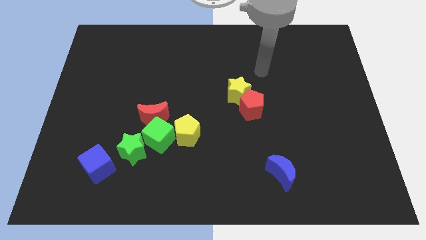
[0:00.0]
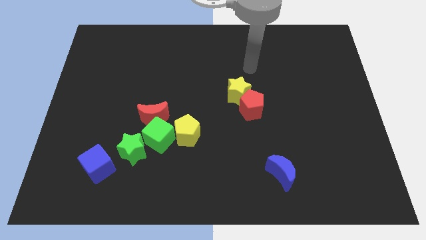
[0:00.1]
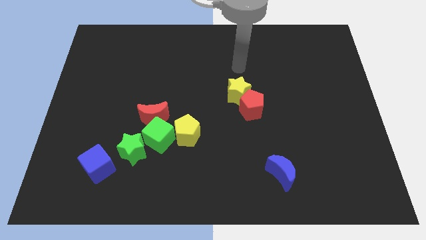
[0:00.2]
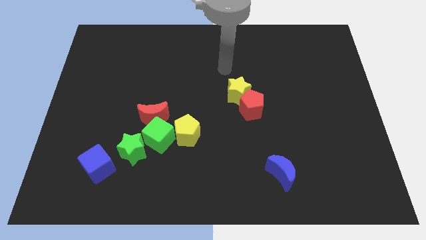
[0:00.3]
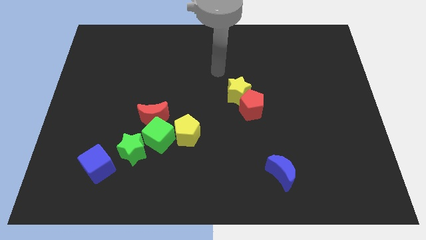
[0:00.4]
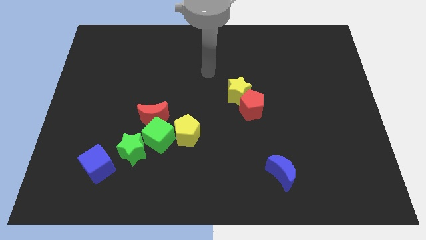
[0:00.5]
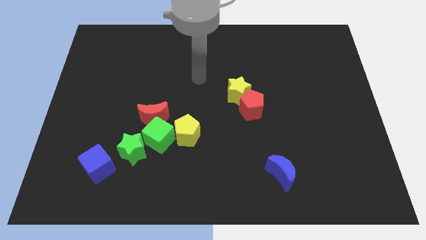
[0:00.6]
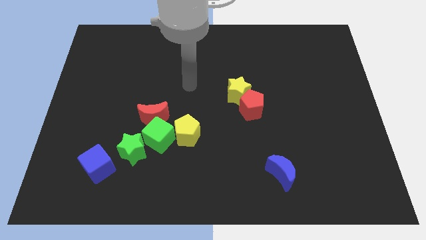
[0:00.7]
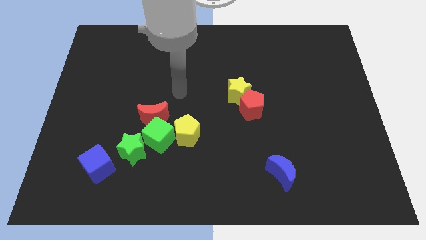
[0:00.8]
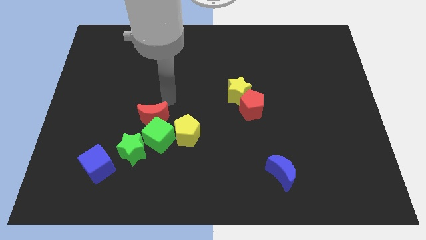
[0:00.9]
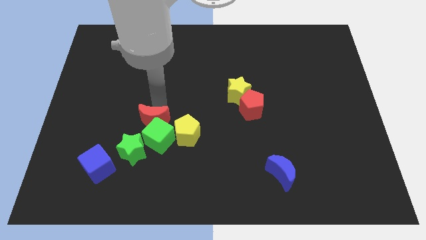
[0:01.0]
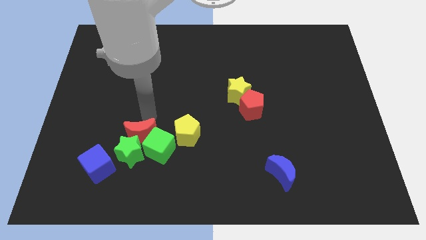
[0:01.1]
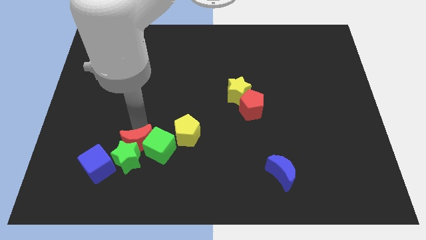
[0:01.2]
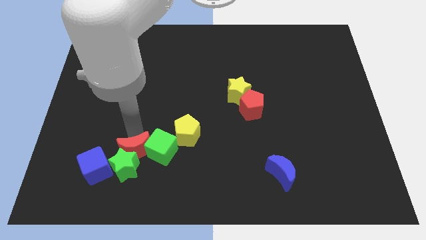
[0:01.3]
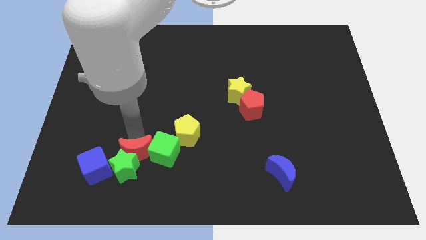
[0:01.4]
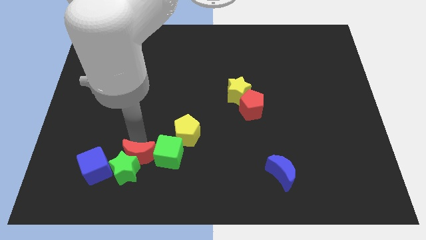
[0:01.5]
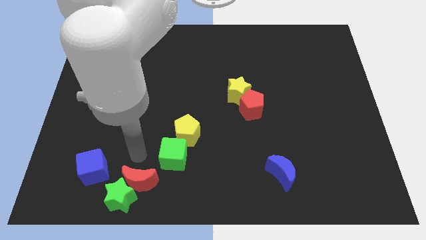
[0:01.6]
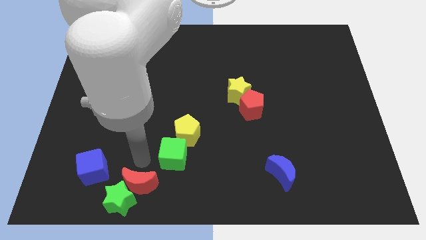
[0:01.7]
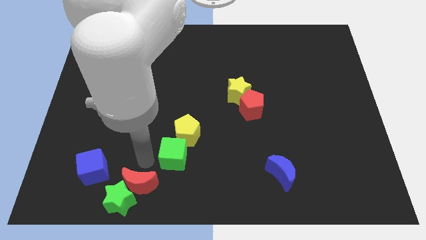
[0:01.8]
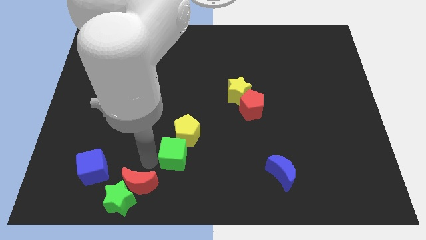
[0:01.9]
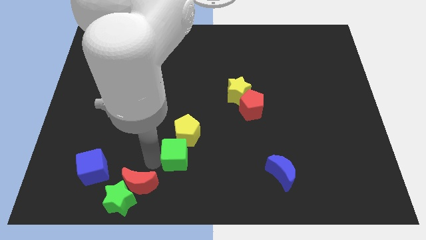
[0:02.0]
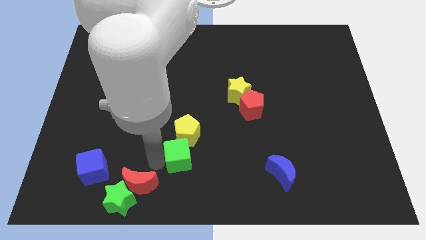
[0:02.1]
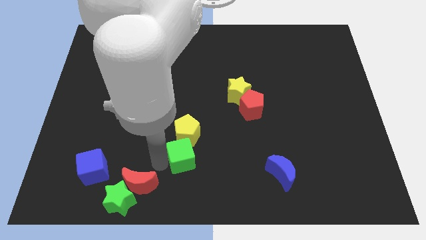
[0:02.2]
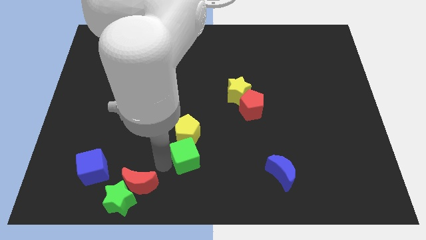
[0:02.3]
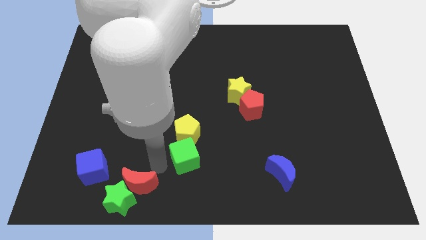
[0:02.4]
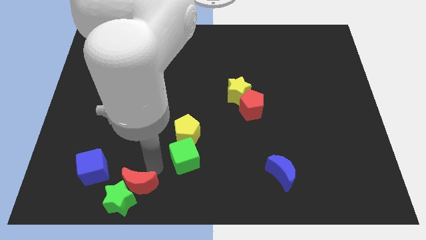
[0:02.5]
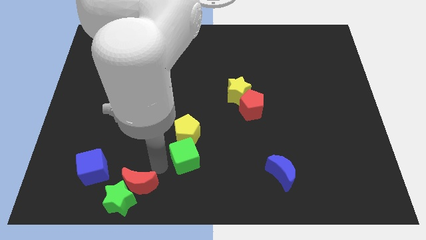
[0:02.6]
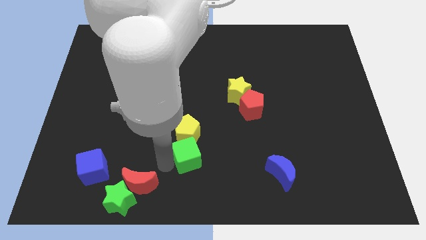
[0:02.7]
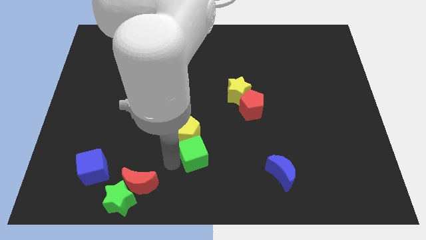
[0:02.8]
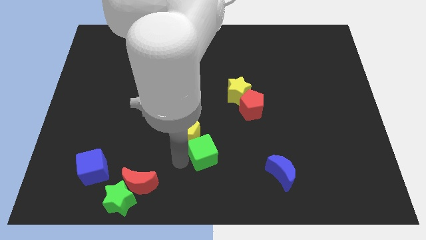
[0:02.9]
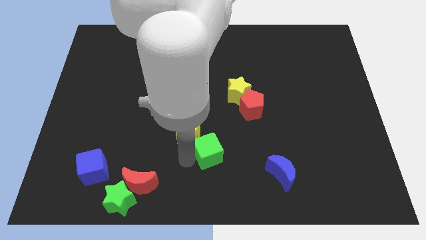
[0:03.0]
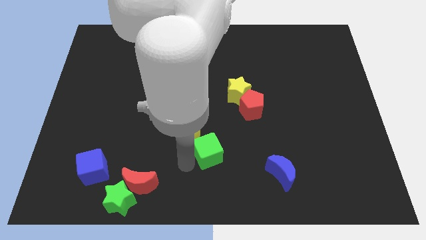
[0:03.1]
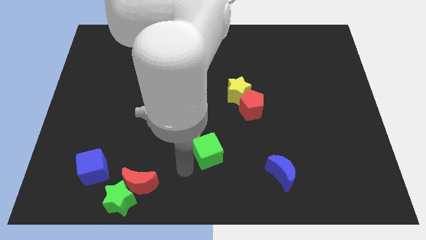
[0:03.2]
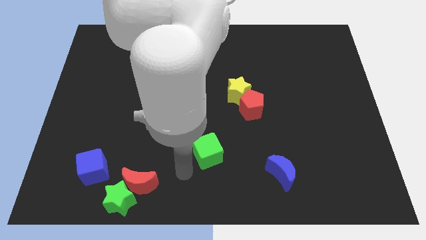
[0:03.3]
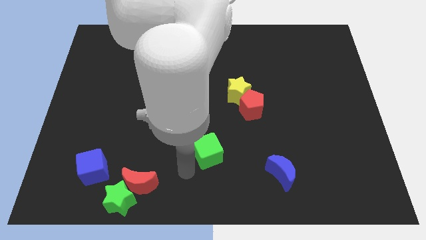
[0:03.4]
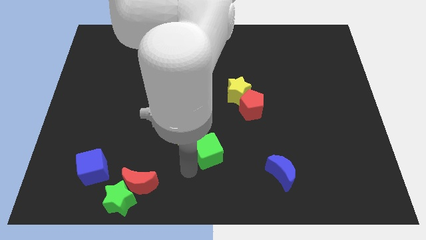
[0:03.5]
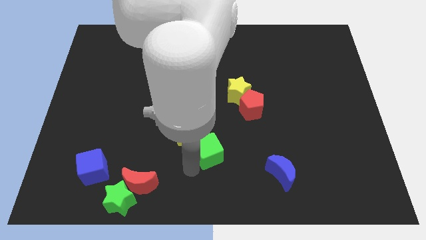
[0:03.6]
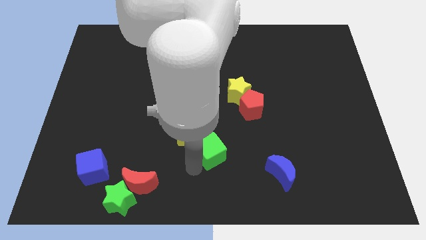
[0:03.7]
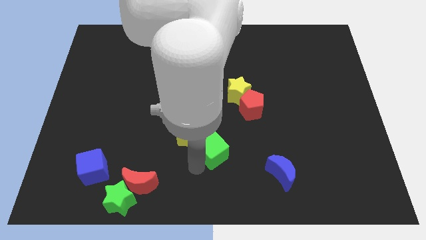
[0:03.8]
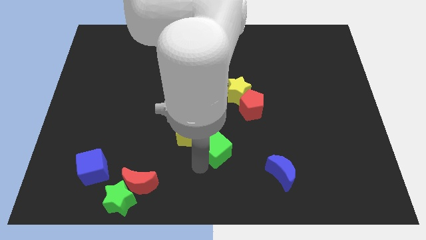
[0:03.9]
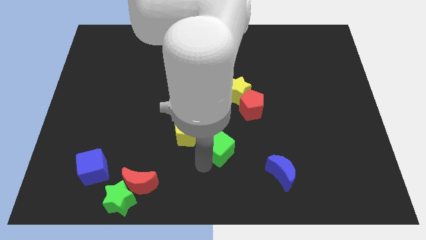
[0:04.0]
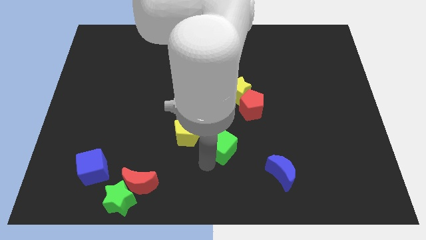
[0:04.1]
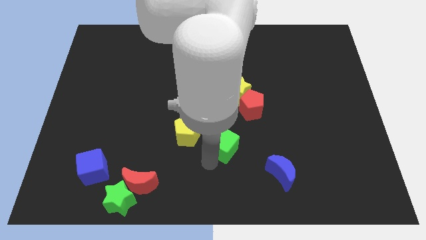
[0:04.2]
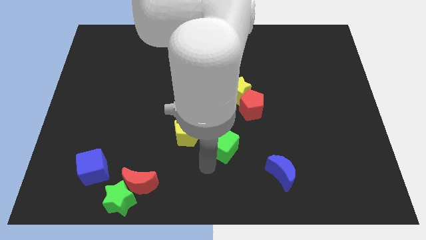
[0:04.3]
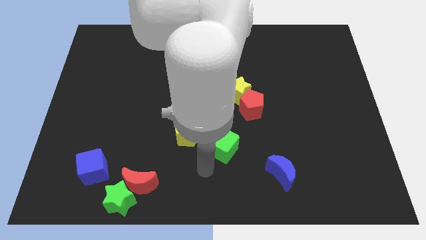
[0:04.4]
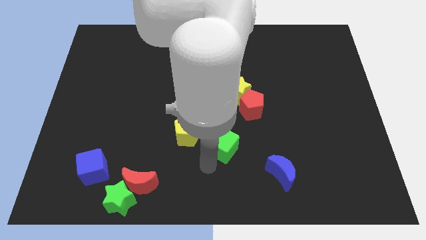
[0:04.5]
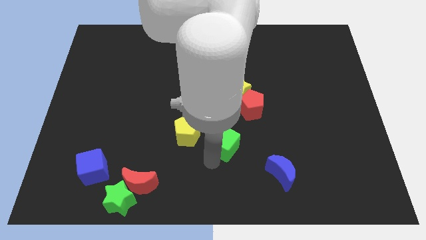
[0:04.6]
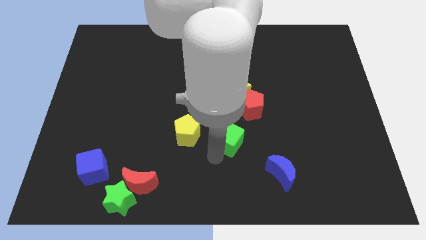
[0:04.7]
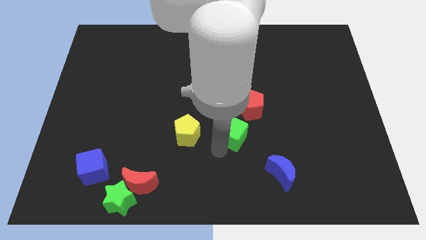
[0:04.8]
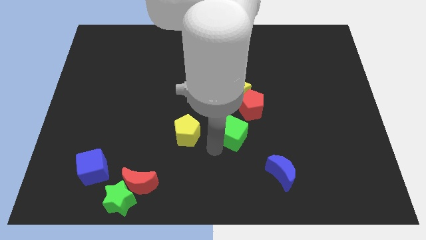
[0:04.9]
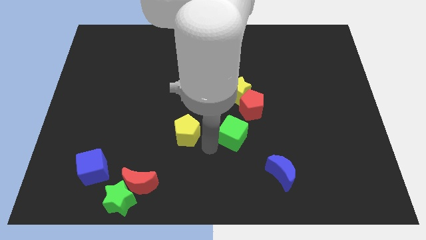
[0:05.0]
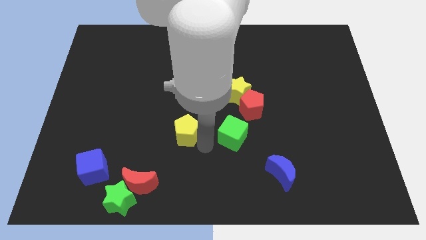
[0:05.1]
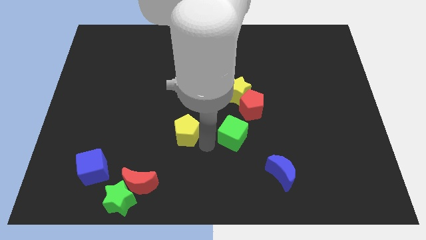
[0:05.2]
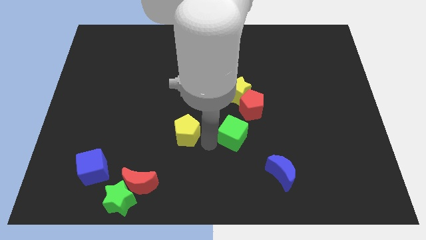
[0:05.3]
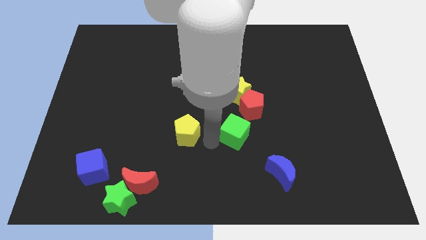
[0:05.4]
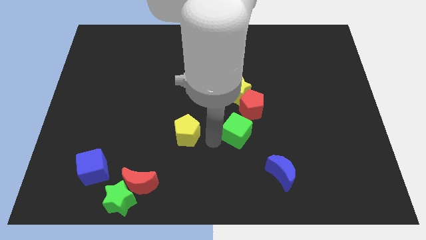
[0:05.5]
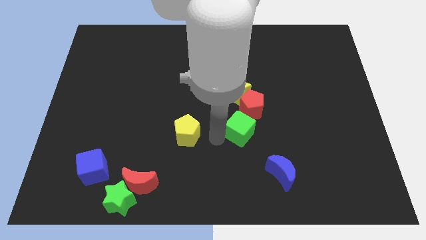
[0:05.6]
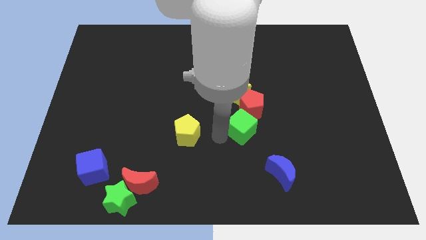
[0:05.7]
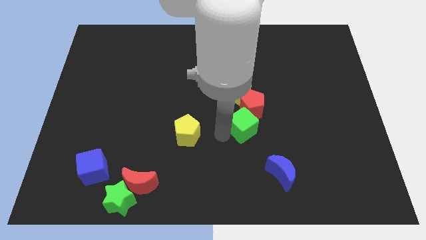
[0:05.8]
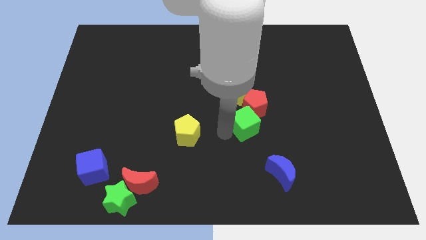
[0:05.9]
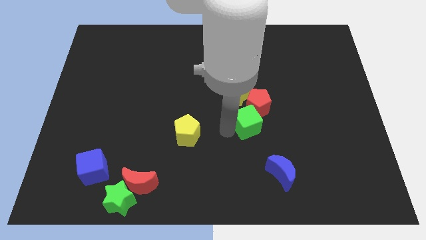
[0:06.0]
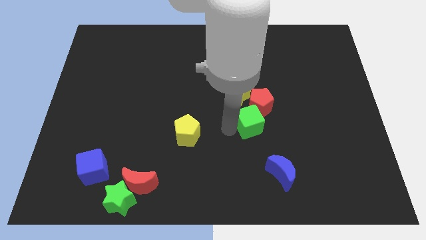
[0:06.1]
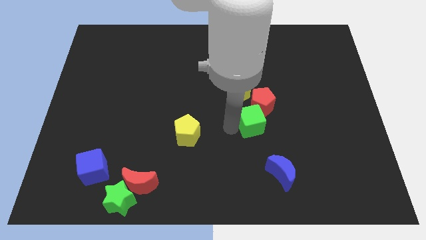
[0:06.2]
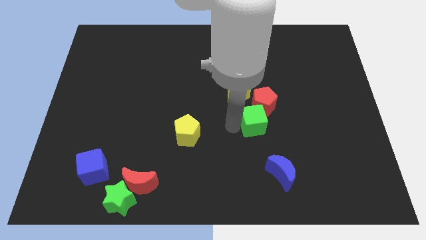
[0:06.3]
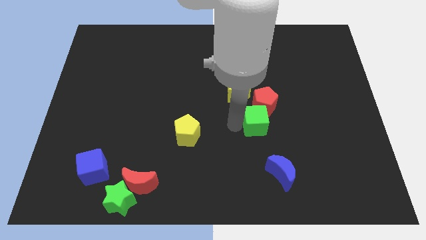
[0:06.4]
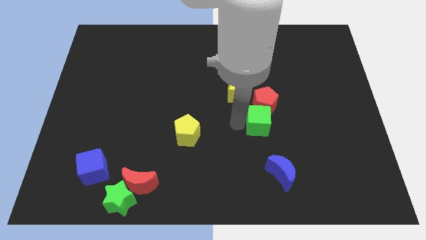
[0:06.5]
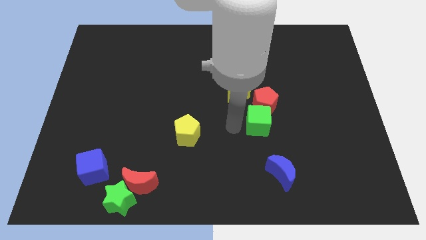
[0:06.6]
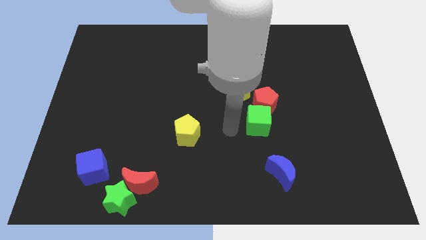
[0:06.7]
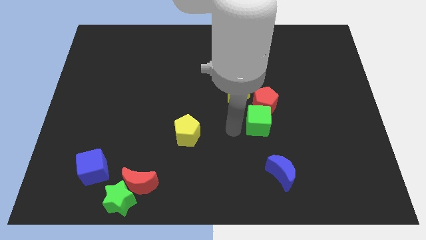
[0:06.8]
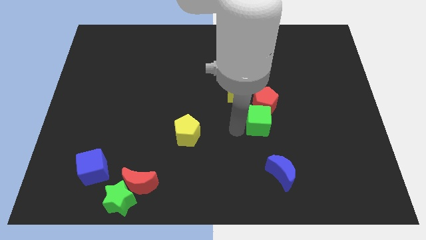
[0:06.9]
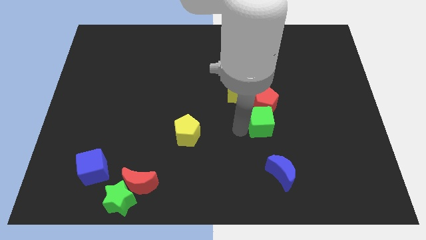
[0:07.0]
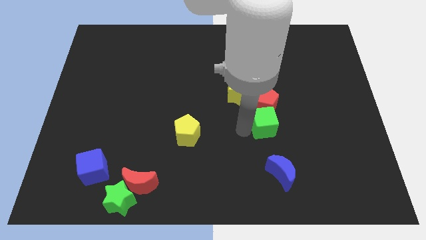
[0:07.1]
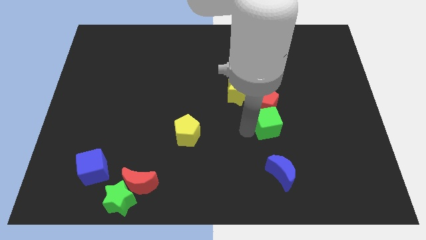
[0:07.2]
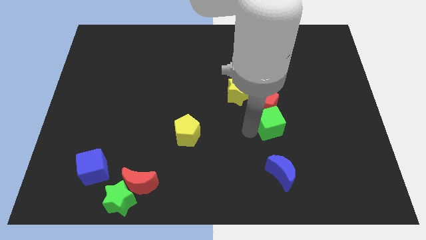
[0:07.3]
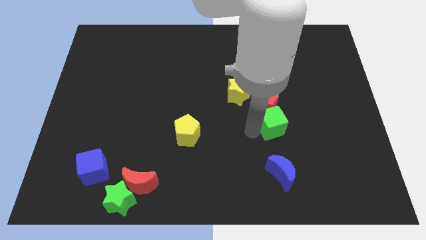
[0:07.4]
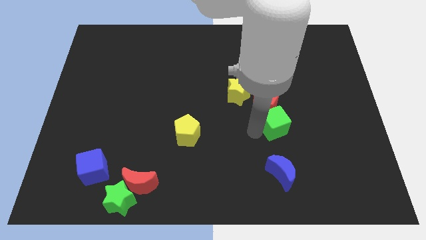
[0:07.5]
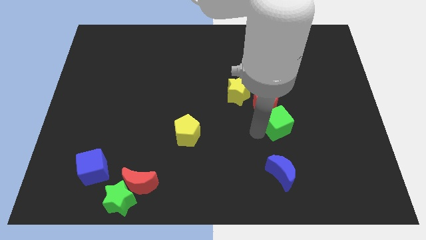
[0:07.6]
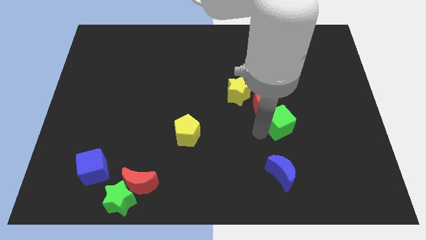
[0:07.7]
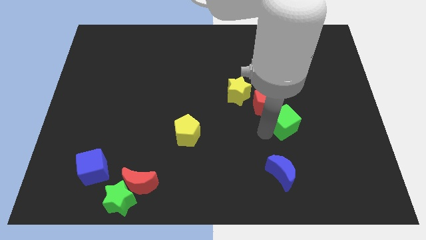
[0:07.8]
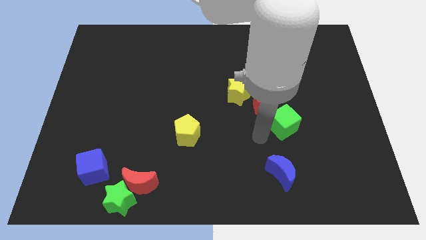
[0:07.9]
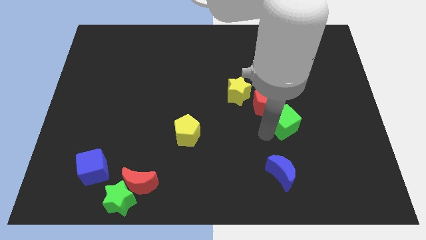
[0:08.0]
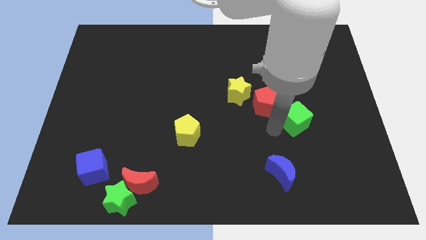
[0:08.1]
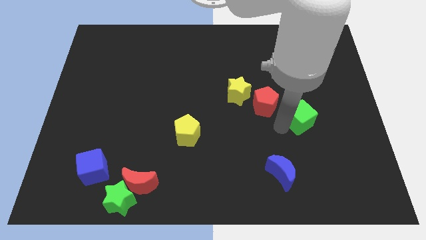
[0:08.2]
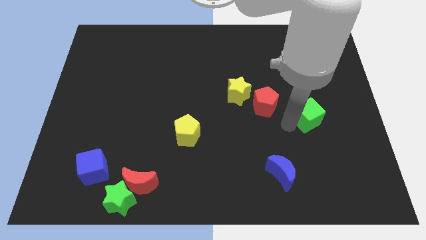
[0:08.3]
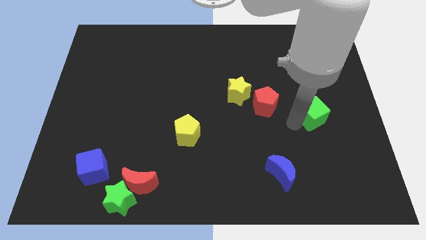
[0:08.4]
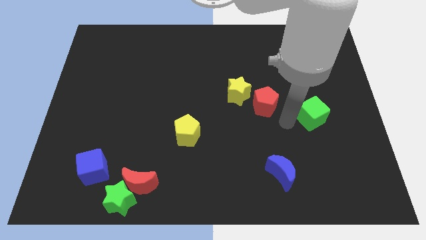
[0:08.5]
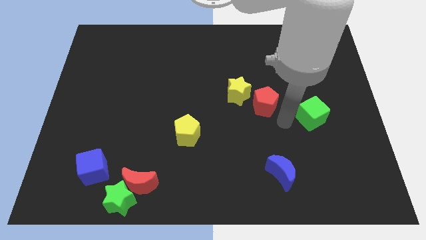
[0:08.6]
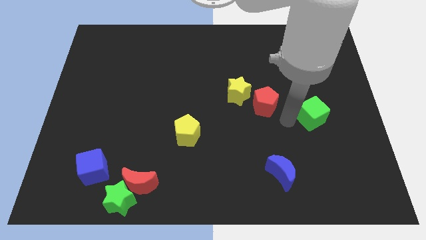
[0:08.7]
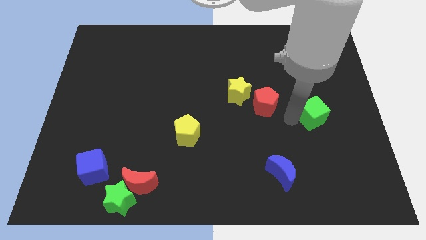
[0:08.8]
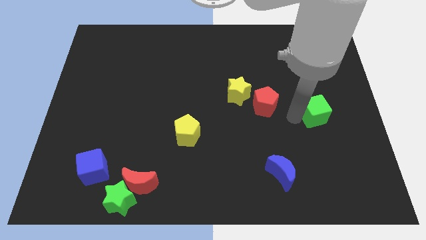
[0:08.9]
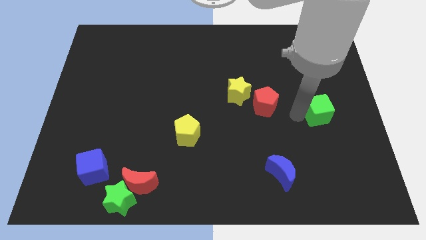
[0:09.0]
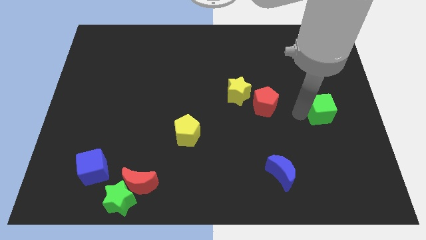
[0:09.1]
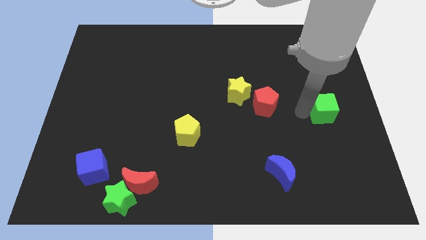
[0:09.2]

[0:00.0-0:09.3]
push the green cube to the right side
